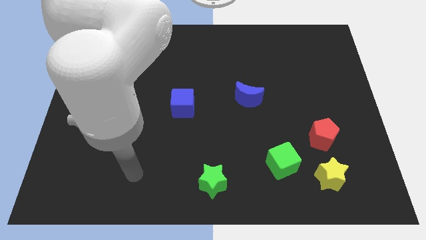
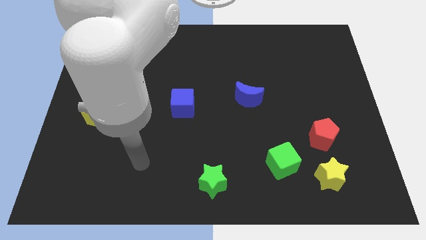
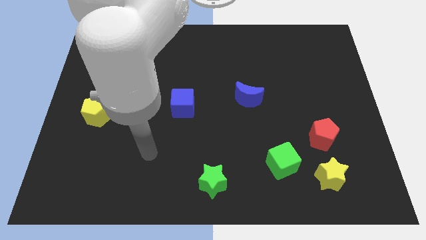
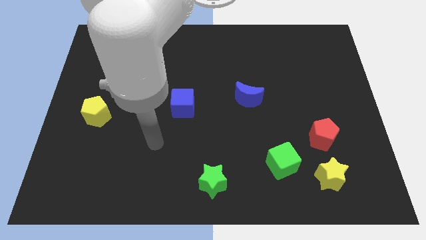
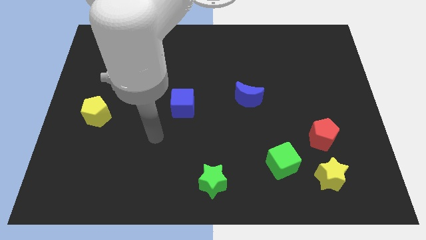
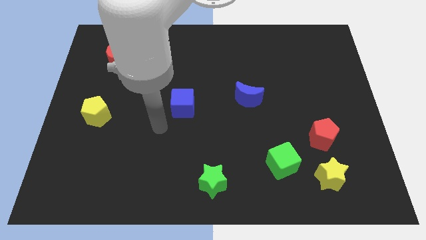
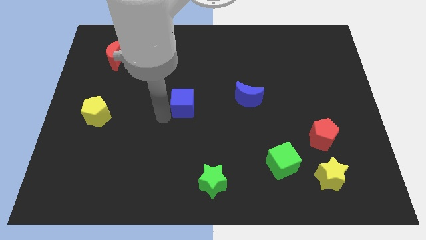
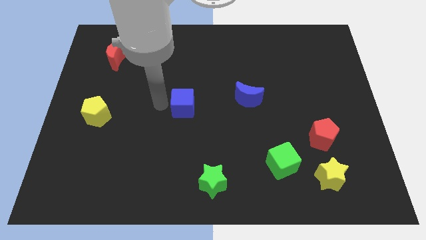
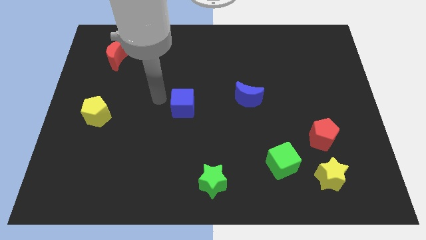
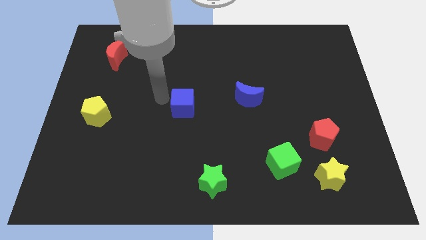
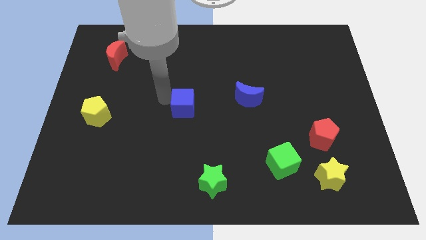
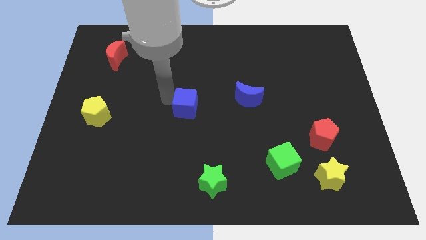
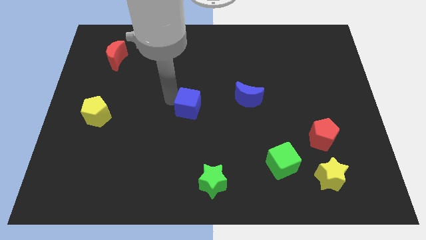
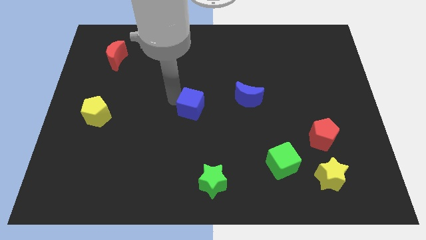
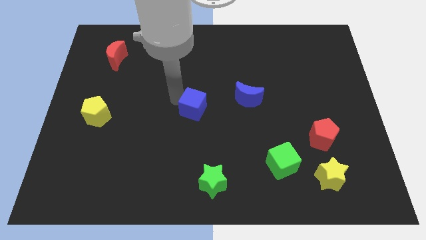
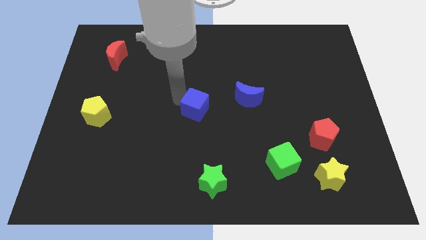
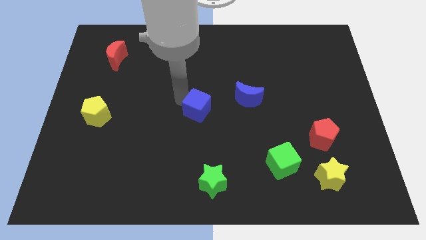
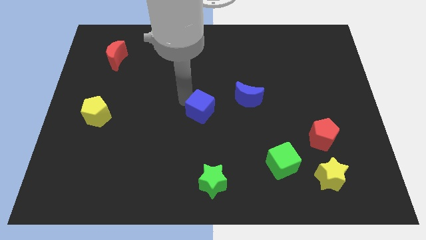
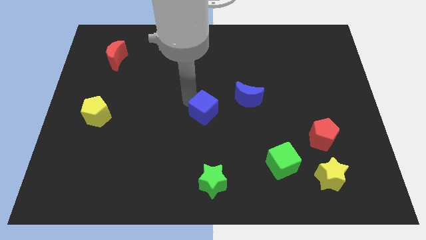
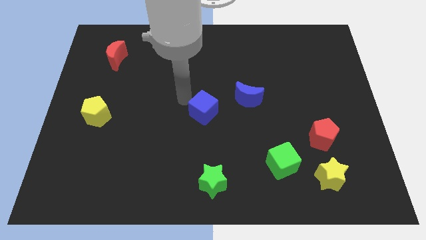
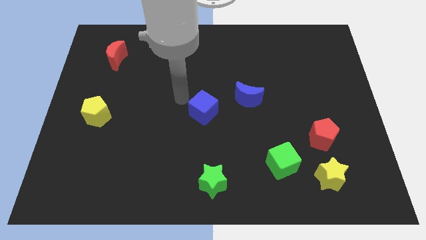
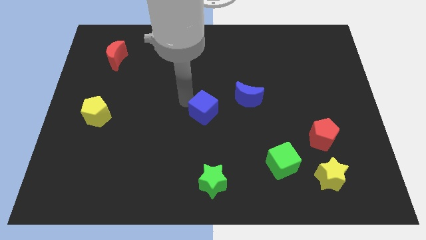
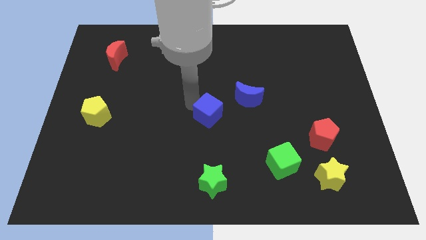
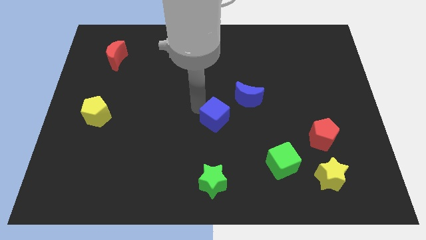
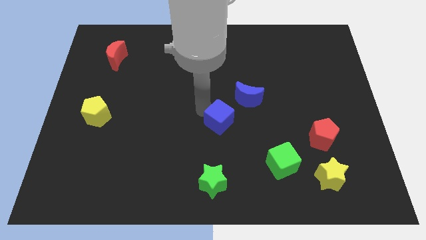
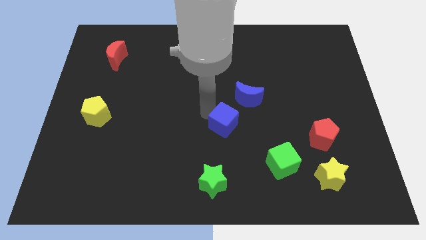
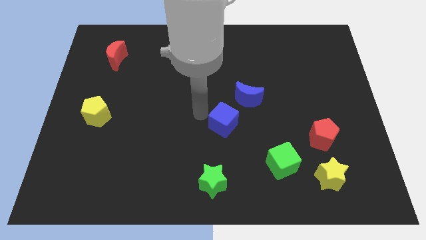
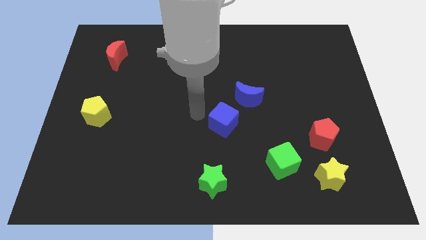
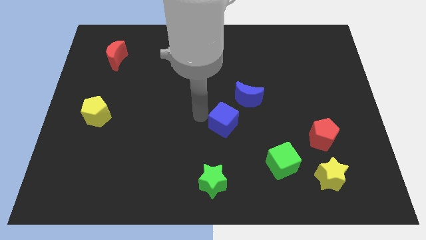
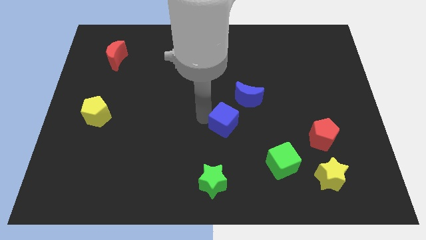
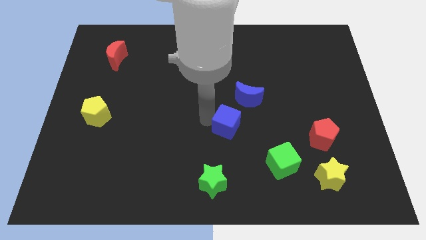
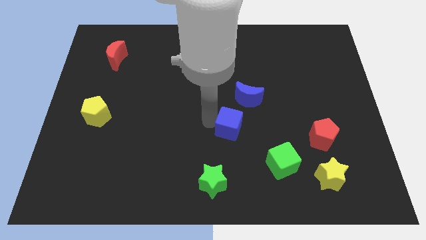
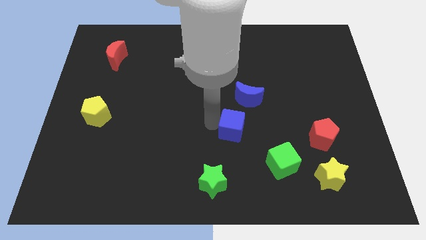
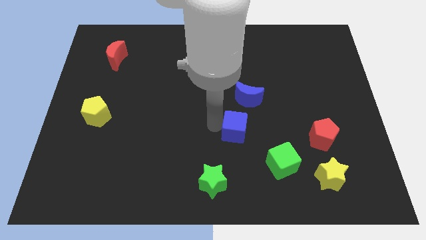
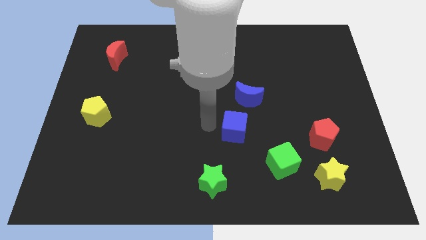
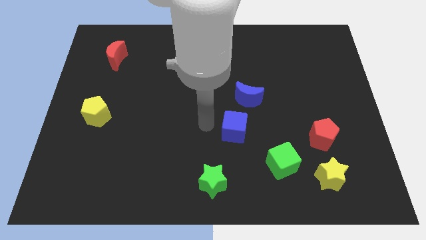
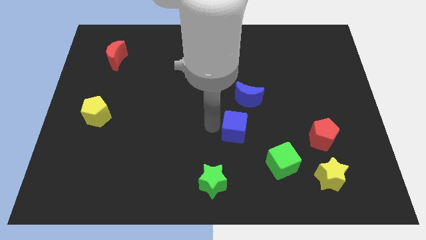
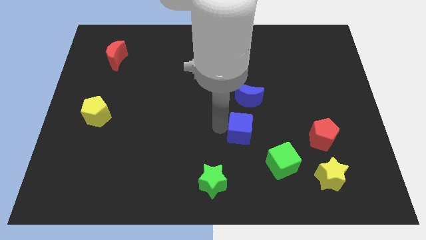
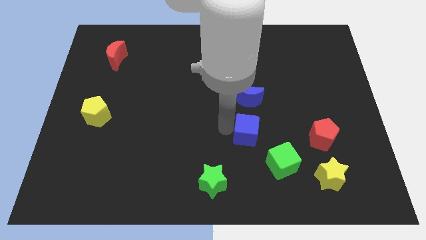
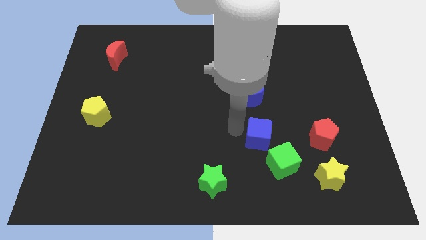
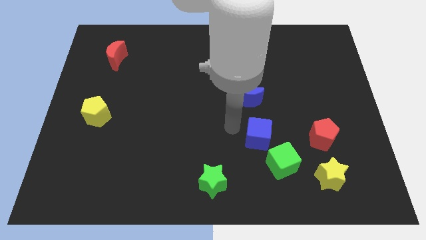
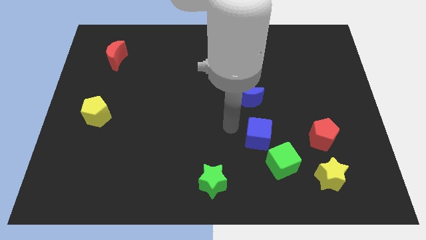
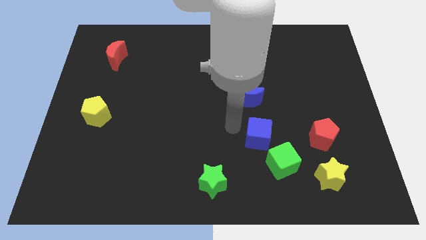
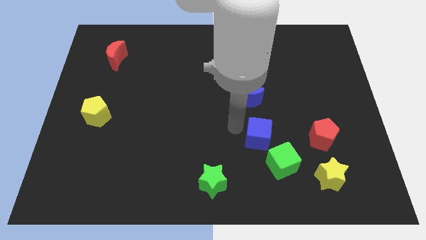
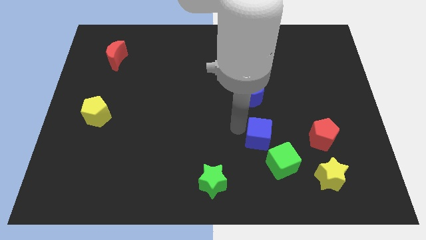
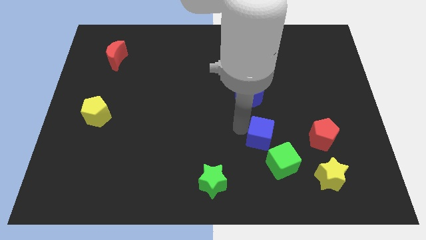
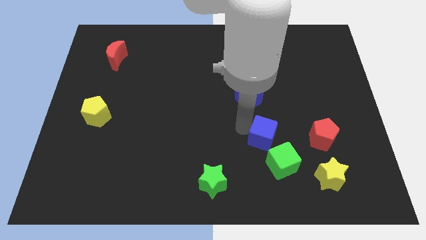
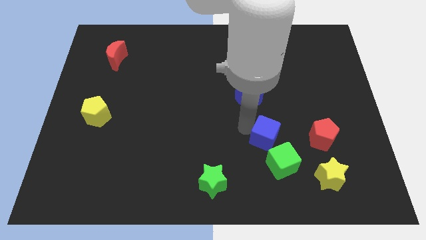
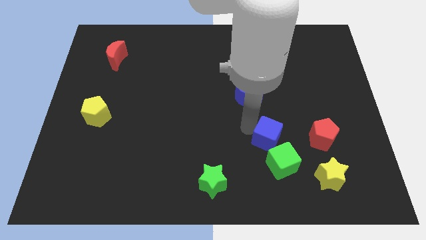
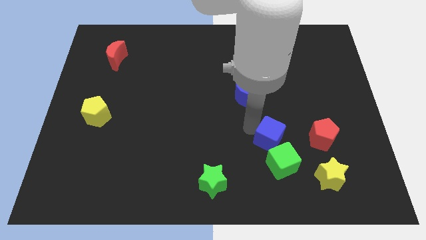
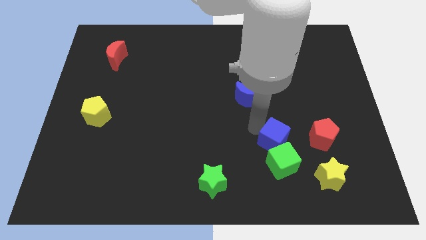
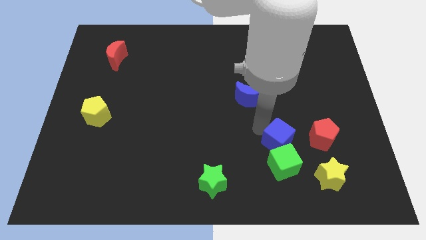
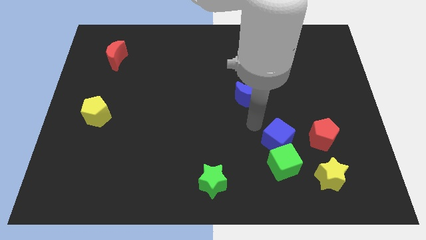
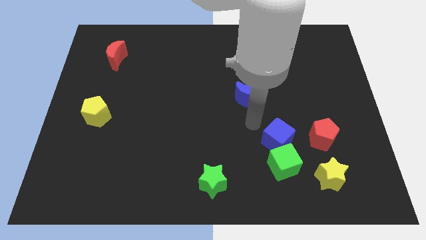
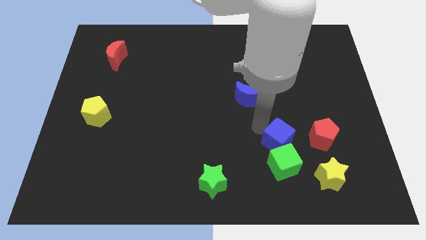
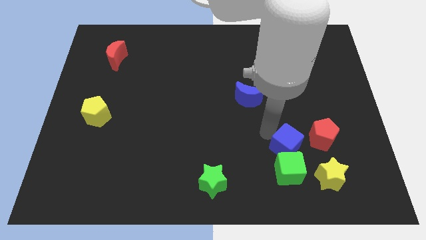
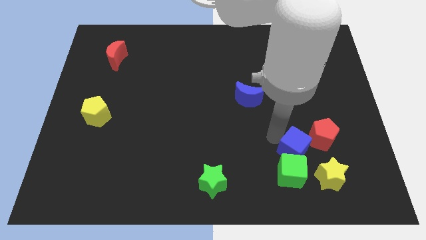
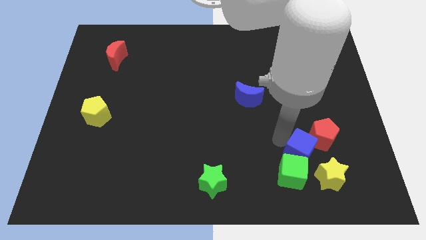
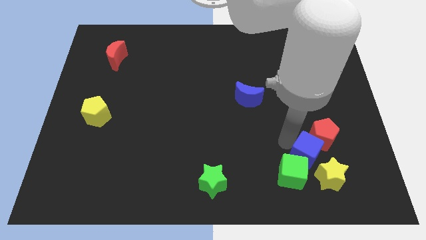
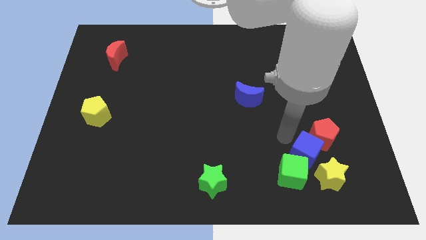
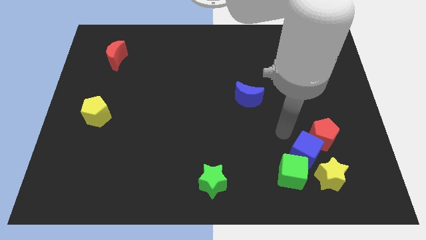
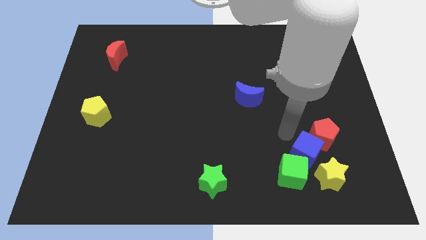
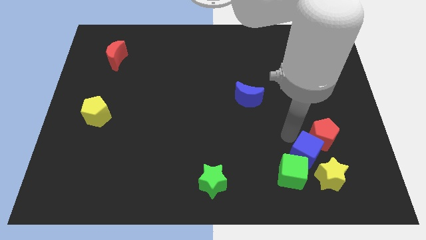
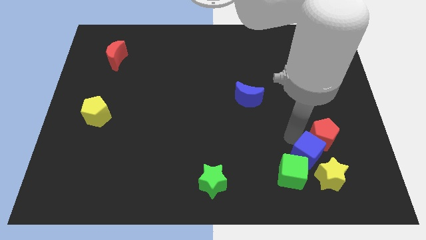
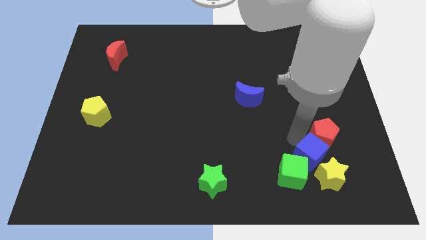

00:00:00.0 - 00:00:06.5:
push the blue cube close to the yellow star

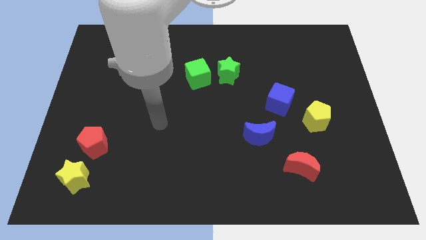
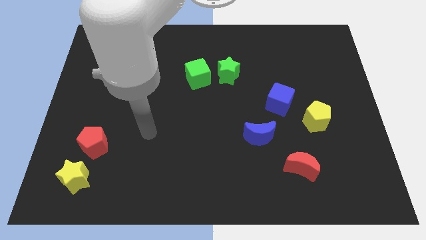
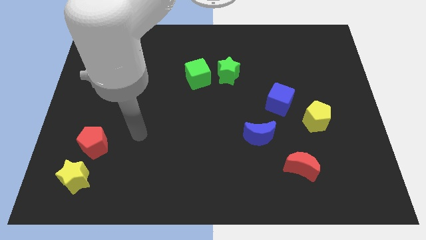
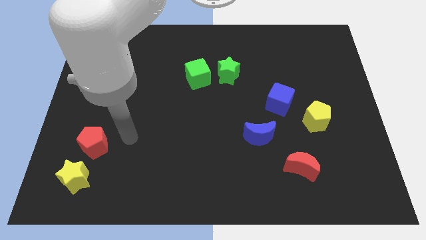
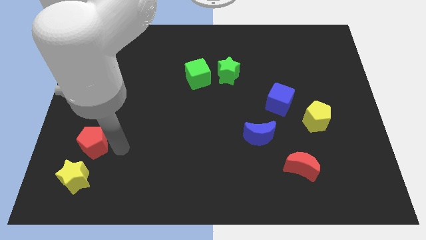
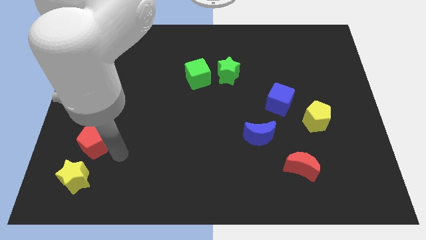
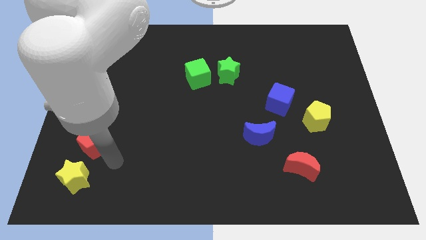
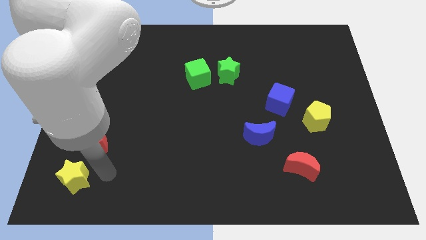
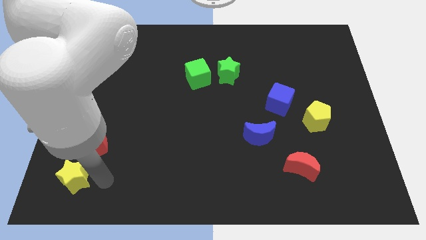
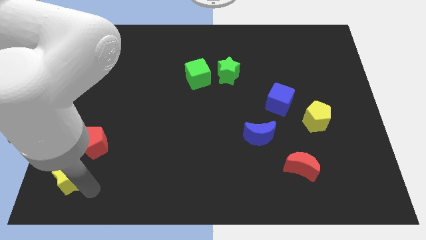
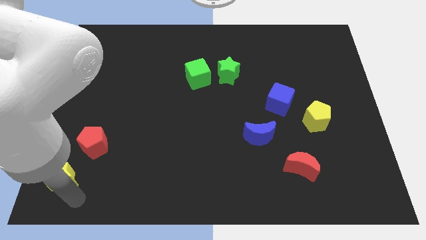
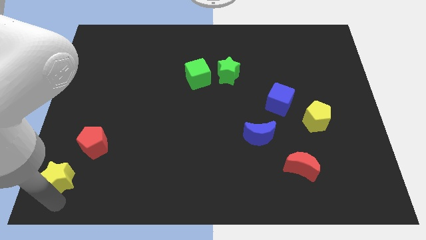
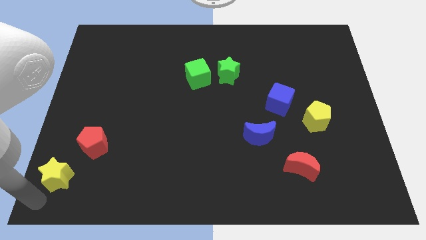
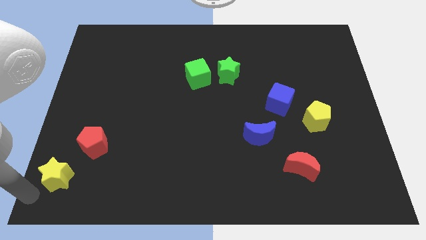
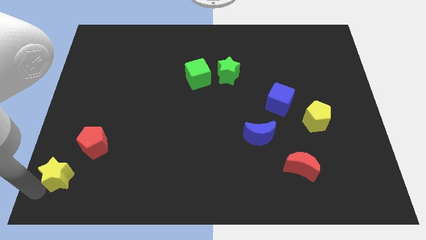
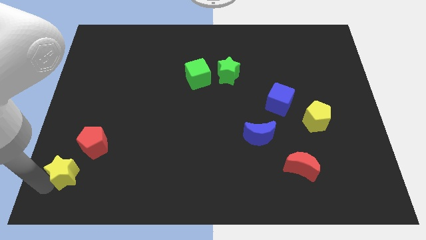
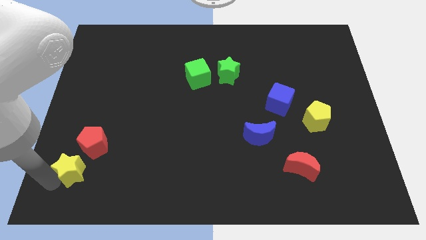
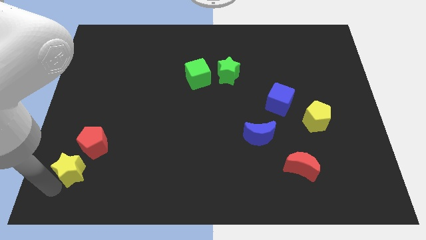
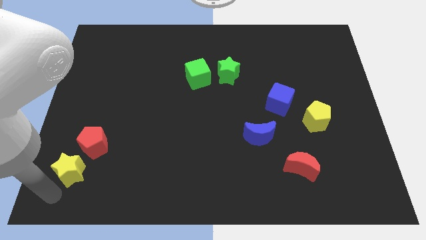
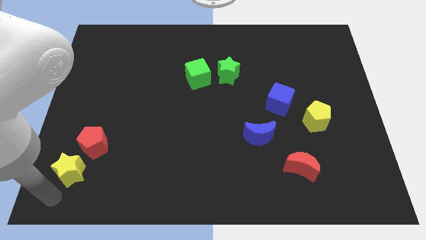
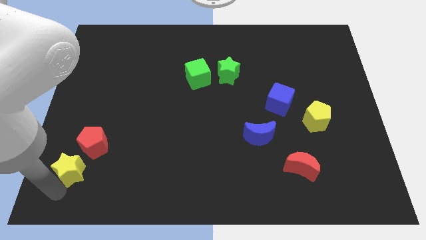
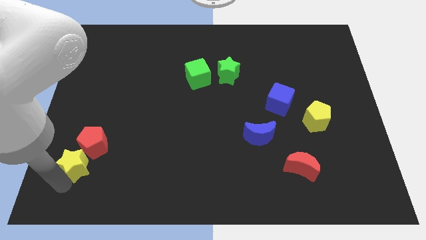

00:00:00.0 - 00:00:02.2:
push the yellow star to the red pentagon
